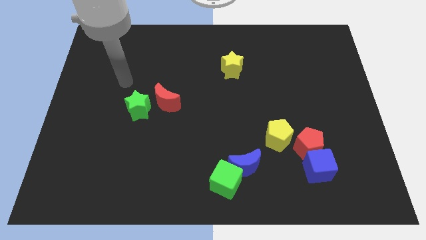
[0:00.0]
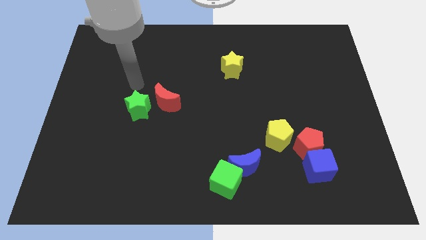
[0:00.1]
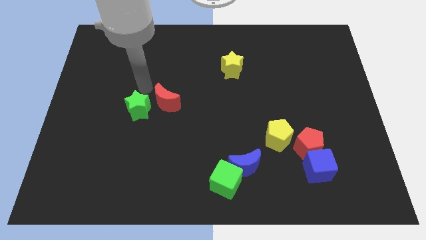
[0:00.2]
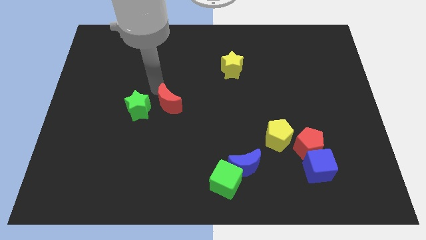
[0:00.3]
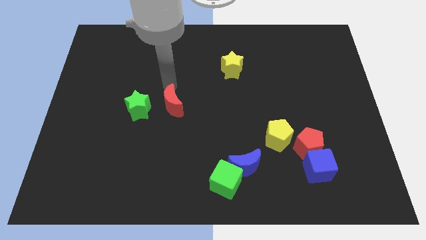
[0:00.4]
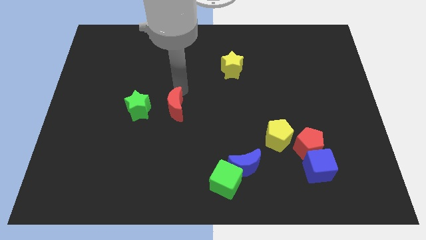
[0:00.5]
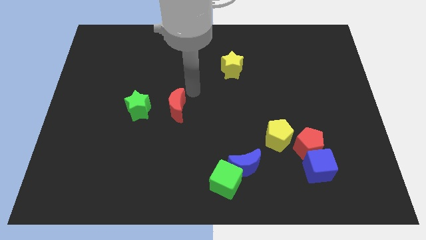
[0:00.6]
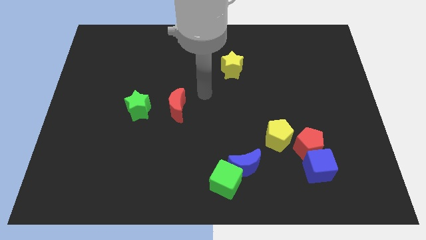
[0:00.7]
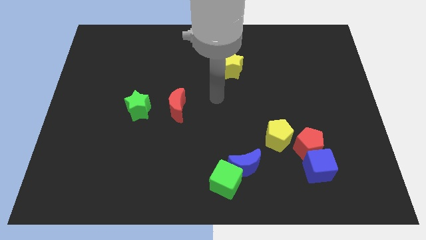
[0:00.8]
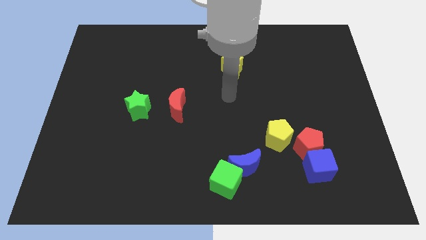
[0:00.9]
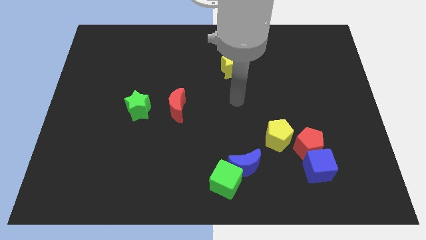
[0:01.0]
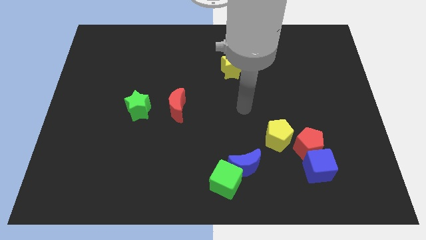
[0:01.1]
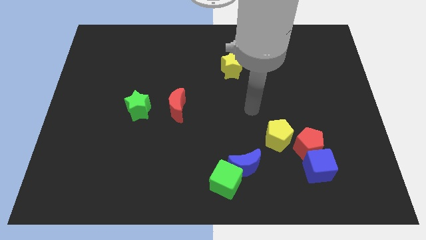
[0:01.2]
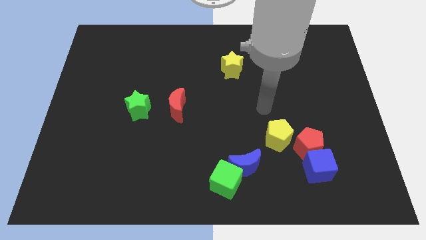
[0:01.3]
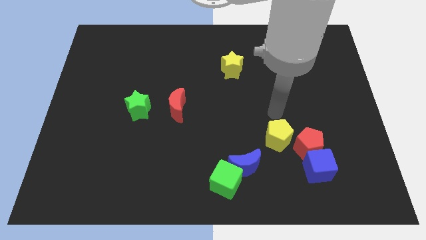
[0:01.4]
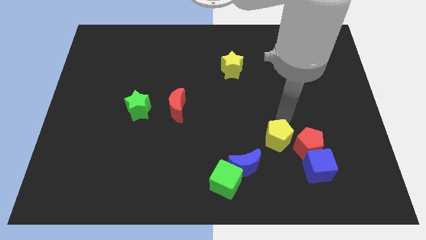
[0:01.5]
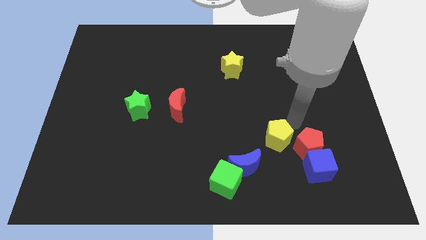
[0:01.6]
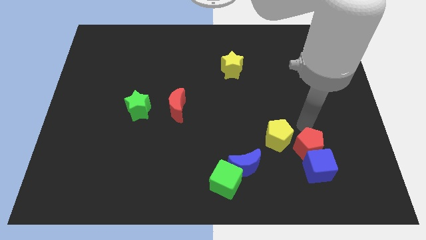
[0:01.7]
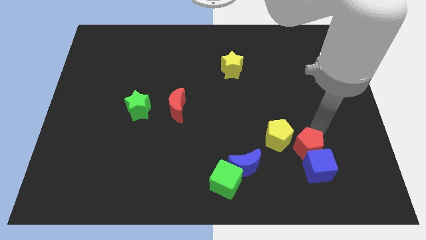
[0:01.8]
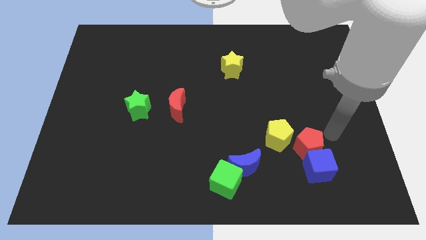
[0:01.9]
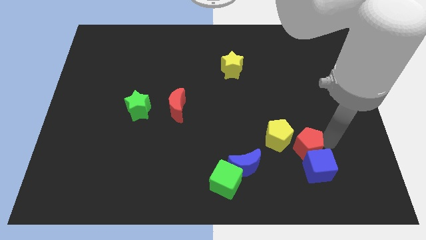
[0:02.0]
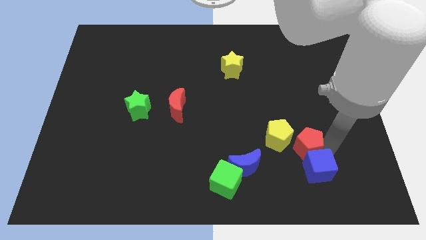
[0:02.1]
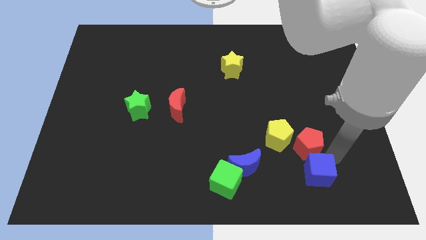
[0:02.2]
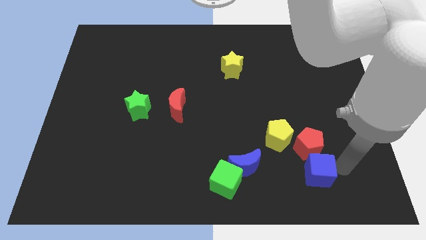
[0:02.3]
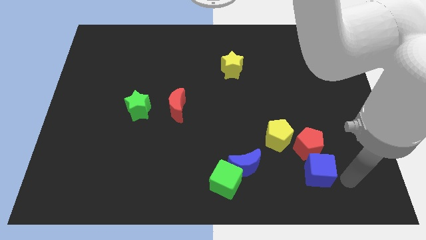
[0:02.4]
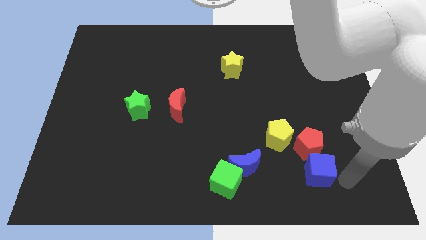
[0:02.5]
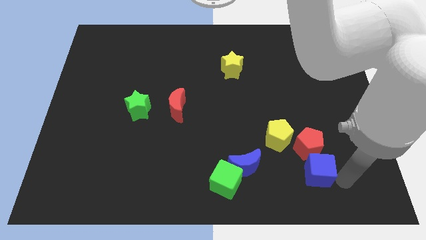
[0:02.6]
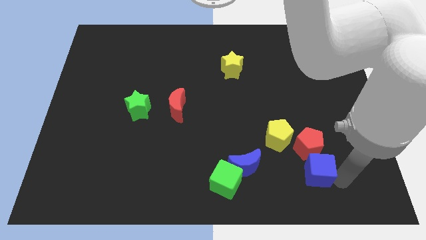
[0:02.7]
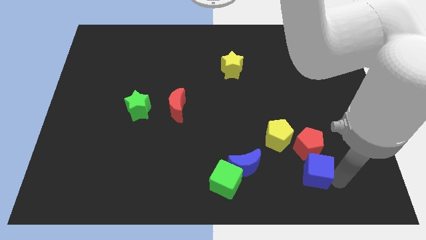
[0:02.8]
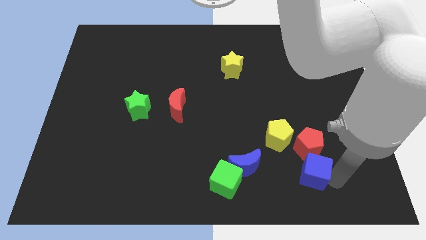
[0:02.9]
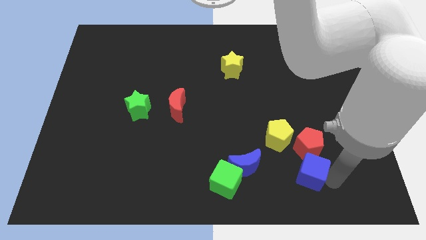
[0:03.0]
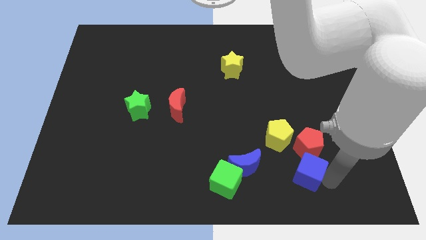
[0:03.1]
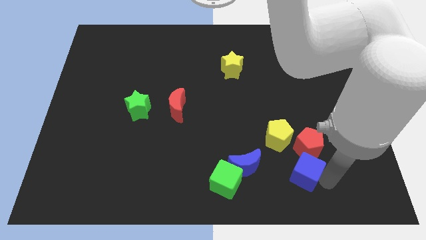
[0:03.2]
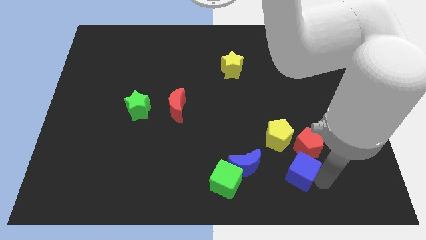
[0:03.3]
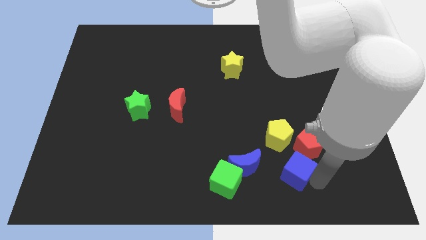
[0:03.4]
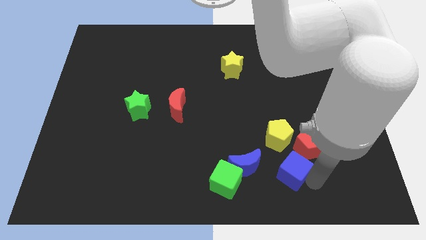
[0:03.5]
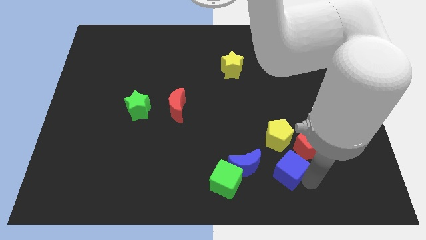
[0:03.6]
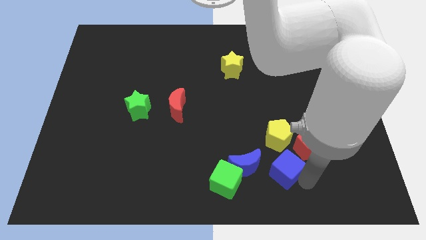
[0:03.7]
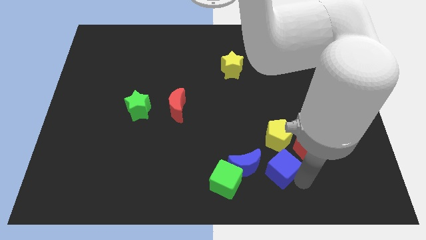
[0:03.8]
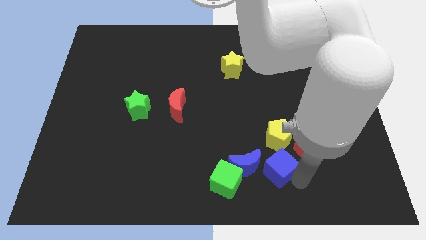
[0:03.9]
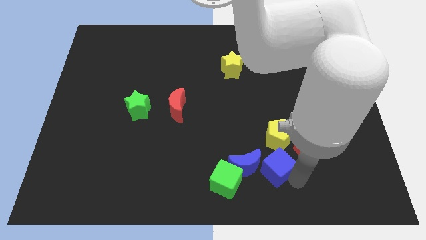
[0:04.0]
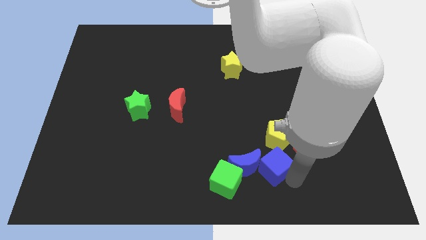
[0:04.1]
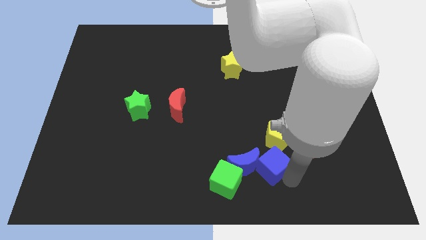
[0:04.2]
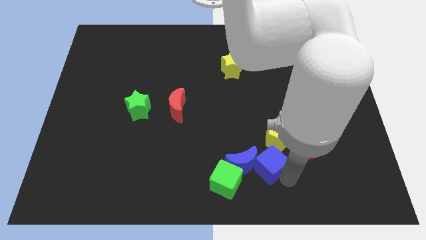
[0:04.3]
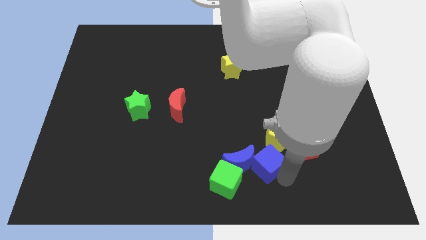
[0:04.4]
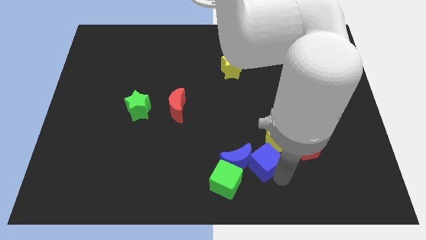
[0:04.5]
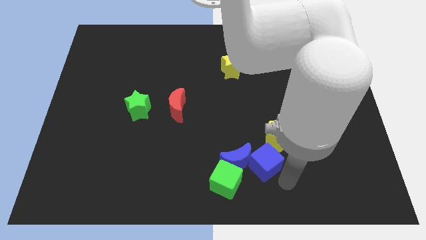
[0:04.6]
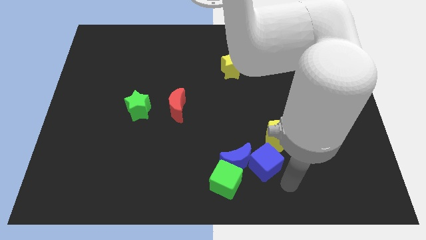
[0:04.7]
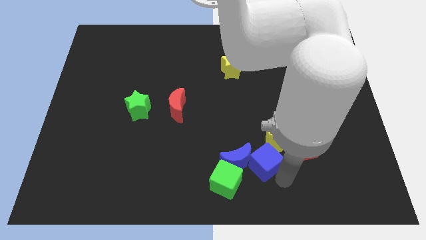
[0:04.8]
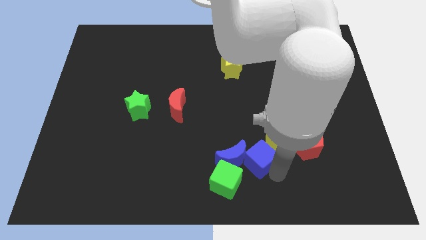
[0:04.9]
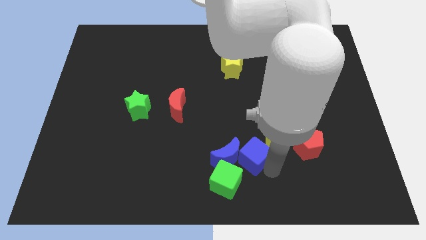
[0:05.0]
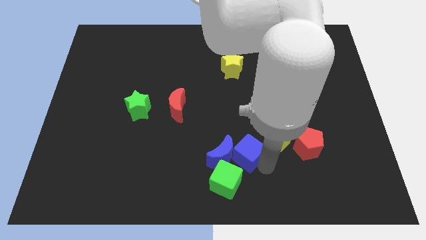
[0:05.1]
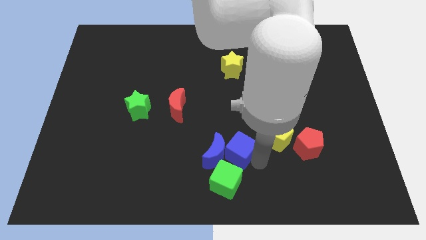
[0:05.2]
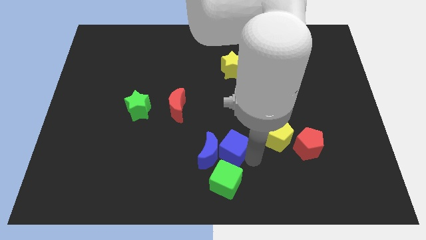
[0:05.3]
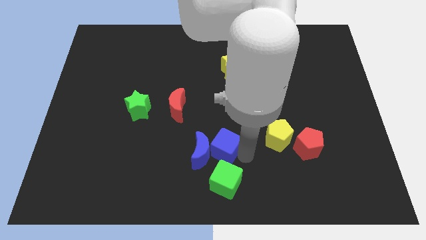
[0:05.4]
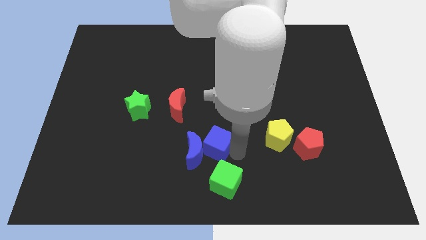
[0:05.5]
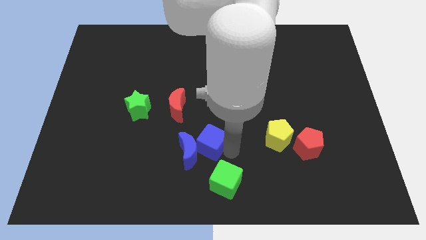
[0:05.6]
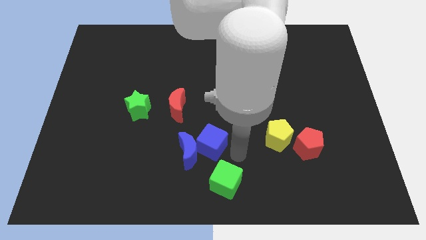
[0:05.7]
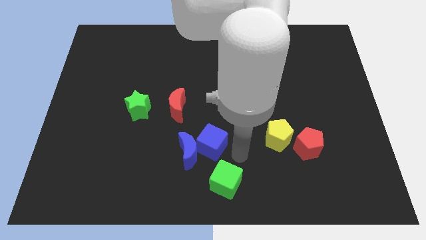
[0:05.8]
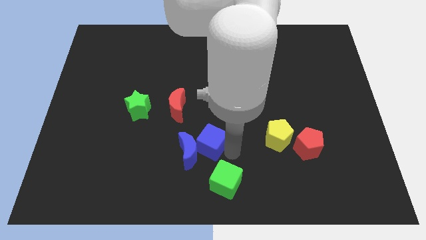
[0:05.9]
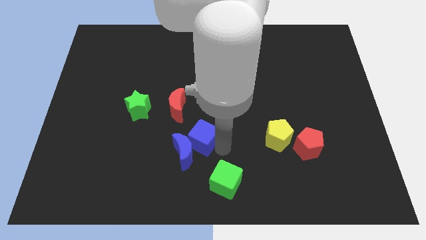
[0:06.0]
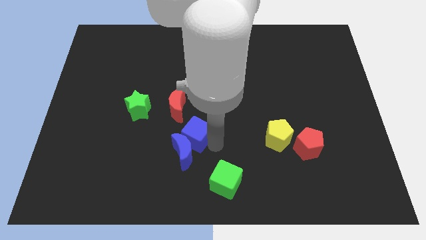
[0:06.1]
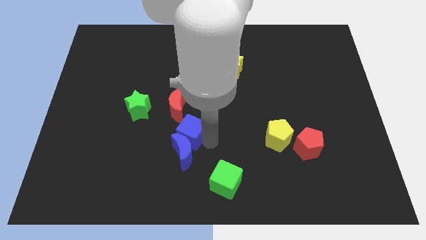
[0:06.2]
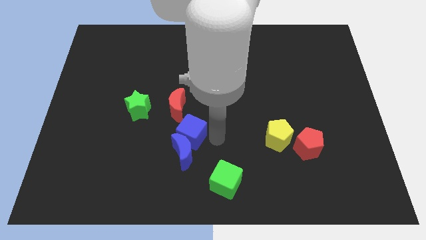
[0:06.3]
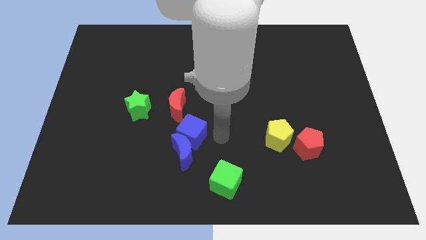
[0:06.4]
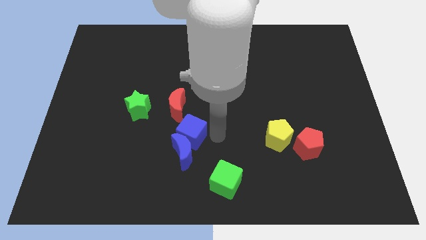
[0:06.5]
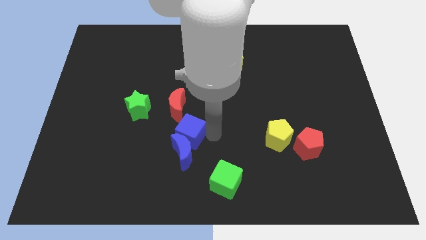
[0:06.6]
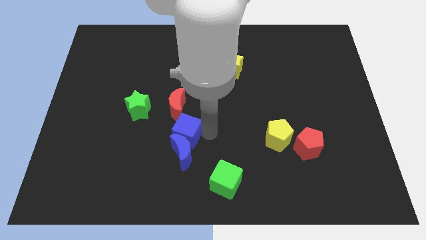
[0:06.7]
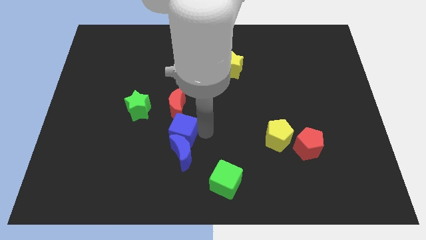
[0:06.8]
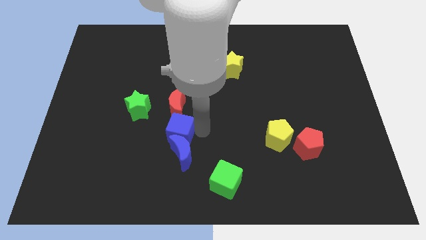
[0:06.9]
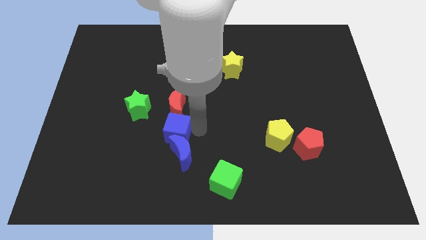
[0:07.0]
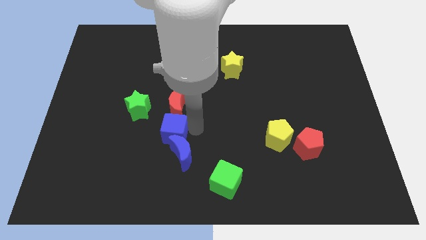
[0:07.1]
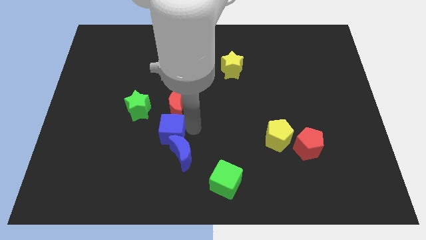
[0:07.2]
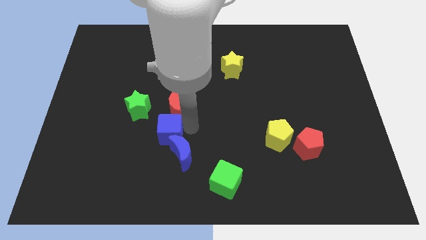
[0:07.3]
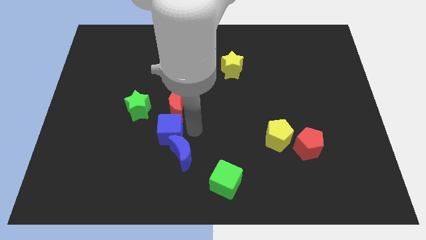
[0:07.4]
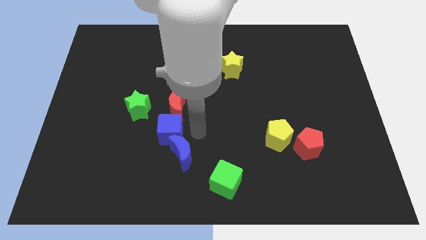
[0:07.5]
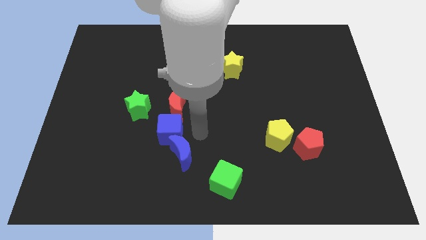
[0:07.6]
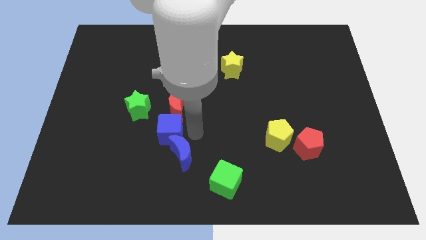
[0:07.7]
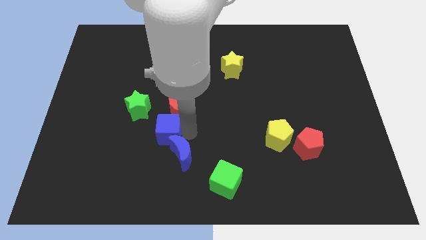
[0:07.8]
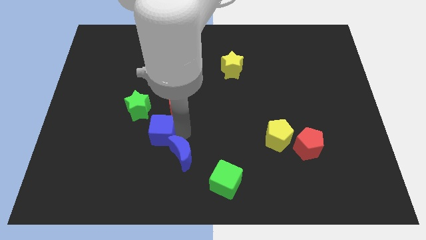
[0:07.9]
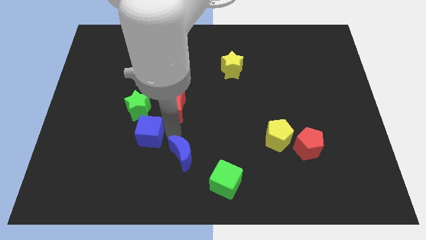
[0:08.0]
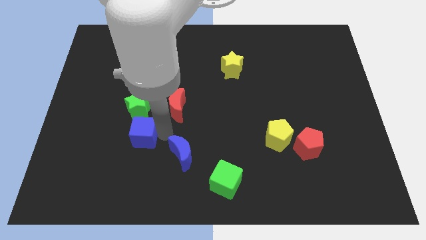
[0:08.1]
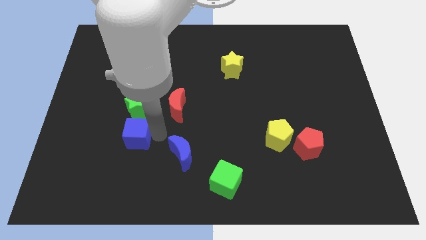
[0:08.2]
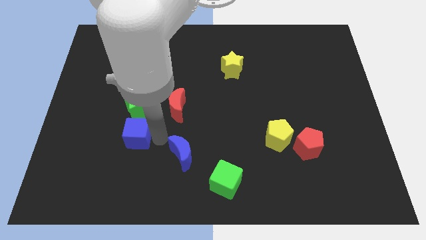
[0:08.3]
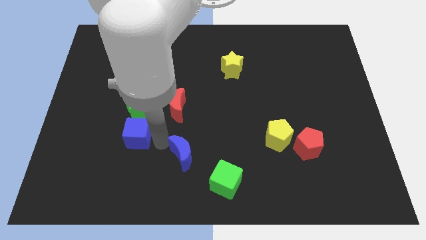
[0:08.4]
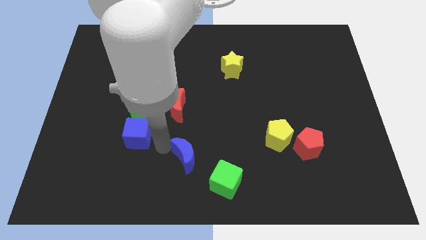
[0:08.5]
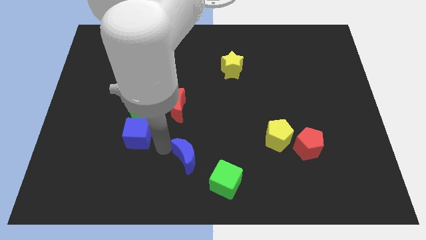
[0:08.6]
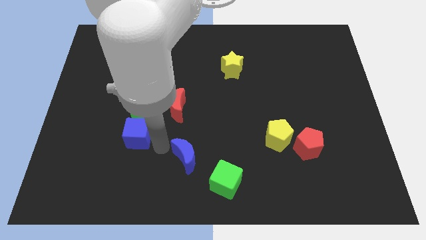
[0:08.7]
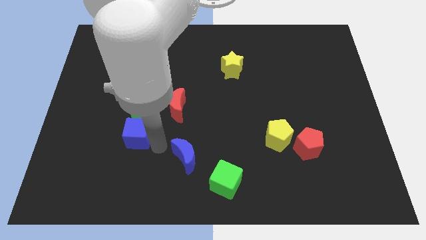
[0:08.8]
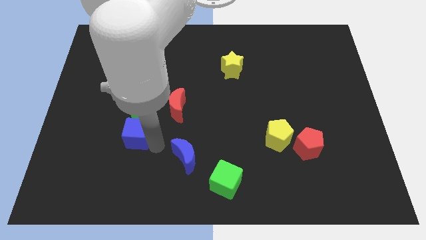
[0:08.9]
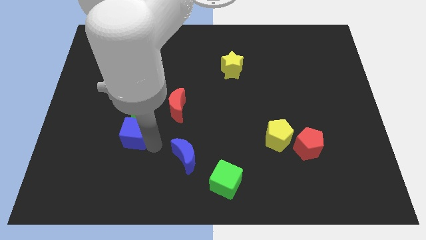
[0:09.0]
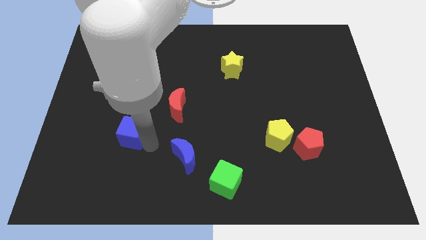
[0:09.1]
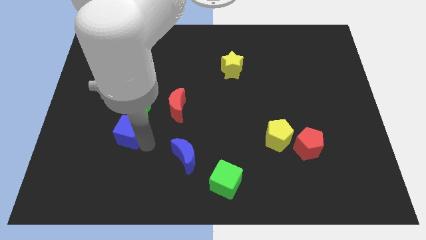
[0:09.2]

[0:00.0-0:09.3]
push the blue cube diagonally down and to the left of the green star
